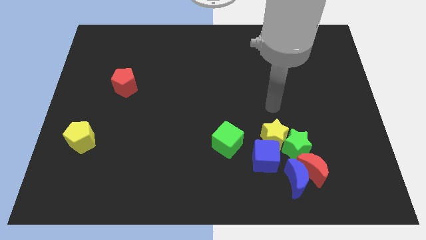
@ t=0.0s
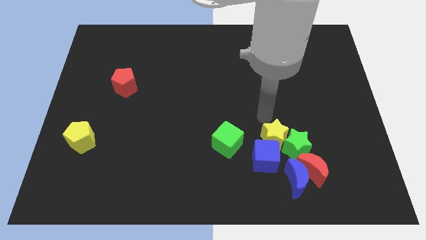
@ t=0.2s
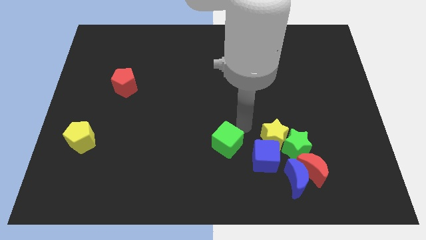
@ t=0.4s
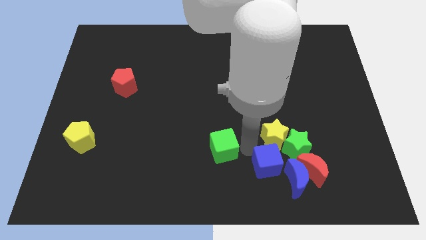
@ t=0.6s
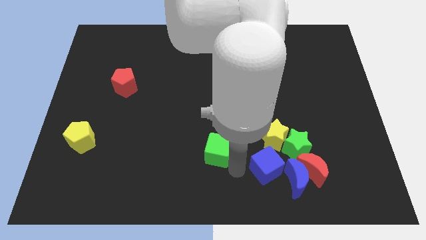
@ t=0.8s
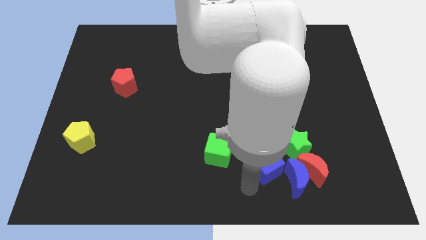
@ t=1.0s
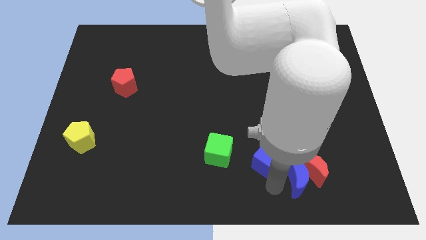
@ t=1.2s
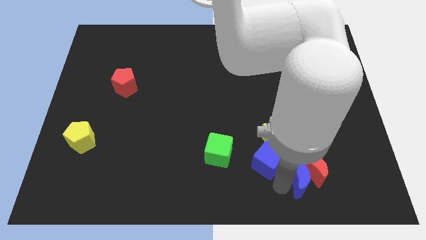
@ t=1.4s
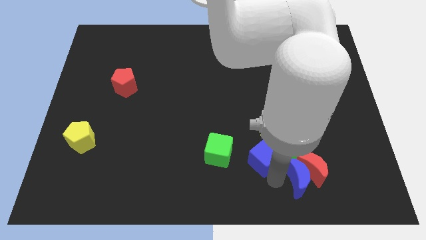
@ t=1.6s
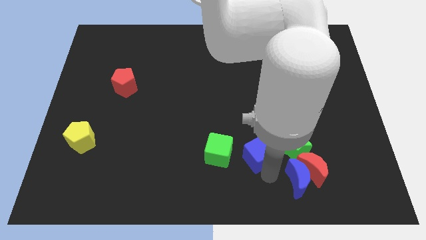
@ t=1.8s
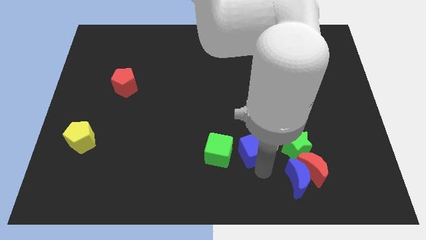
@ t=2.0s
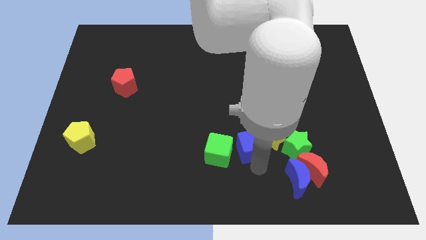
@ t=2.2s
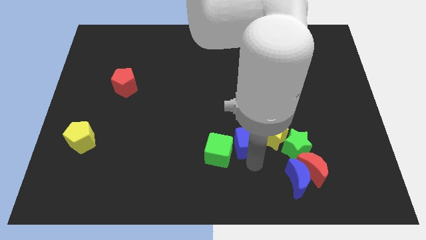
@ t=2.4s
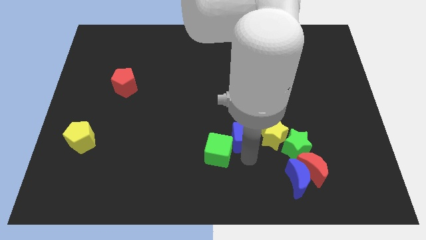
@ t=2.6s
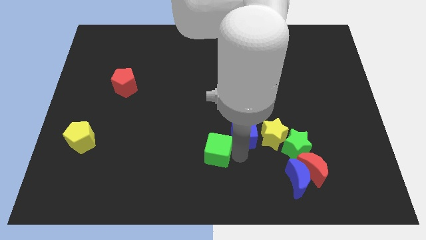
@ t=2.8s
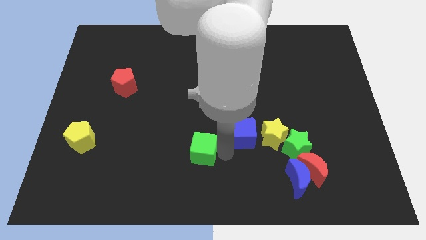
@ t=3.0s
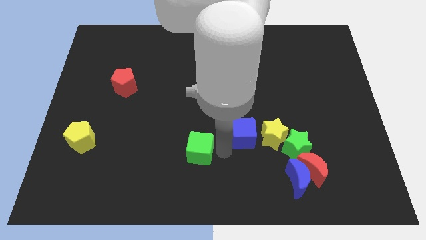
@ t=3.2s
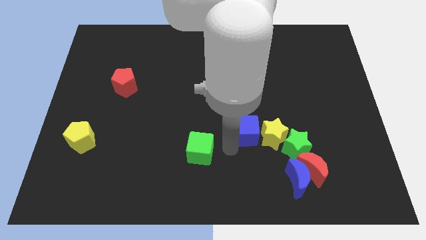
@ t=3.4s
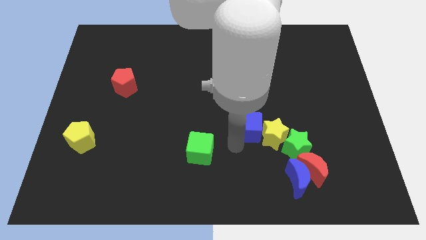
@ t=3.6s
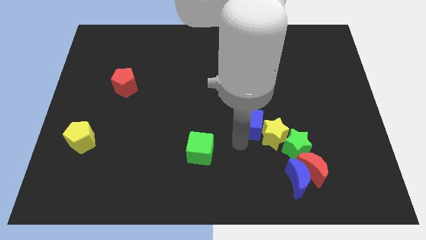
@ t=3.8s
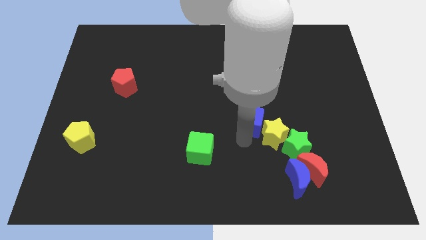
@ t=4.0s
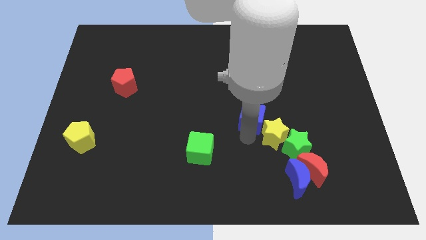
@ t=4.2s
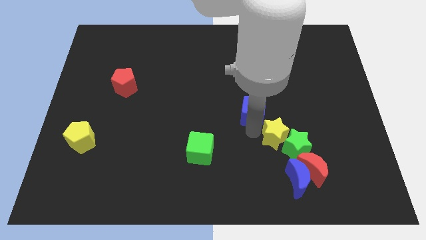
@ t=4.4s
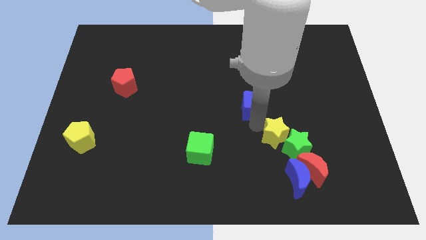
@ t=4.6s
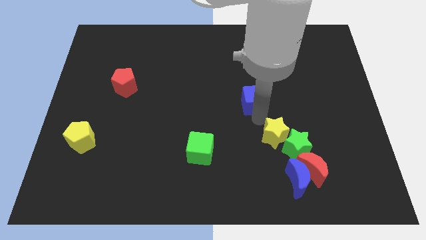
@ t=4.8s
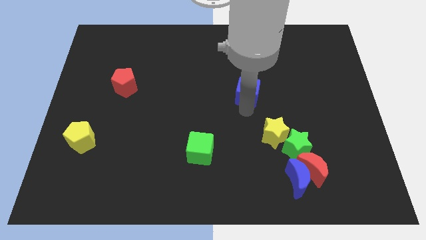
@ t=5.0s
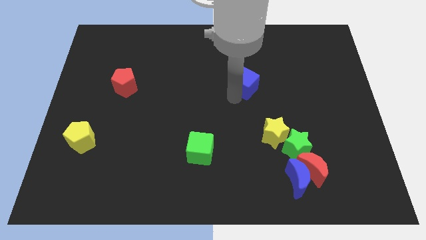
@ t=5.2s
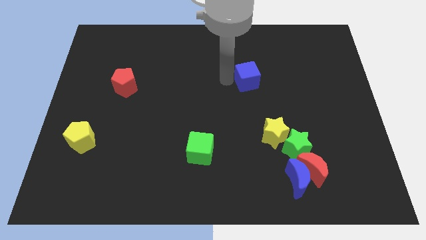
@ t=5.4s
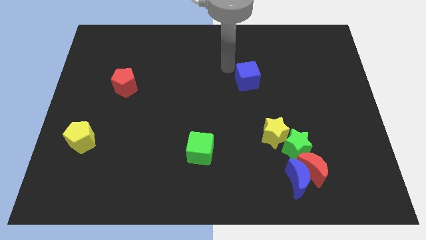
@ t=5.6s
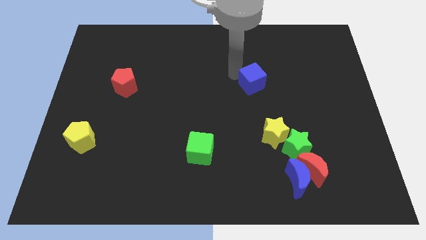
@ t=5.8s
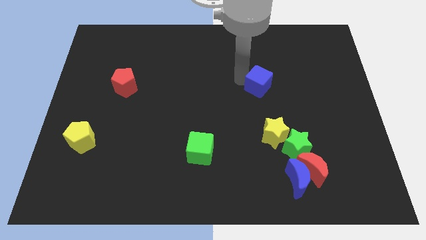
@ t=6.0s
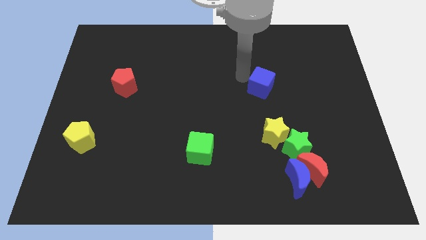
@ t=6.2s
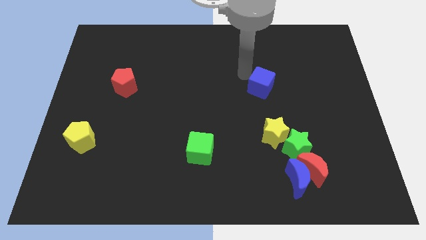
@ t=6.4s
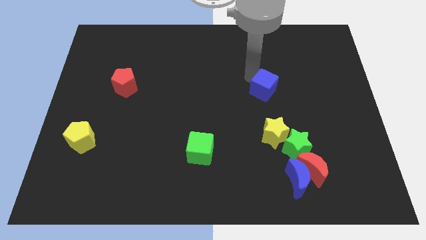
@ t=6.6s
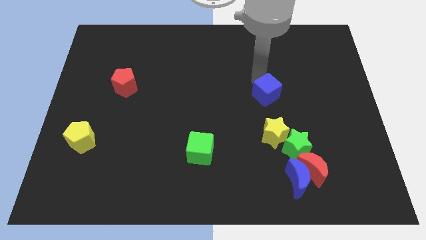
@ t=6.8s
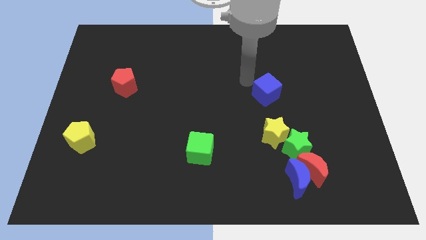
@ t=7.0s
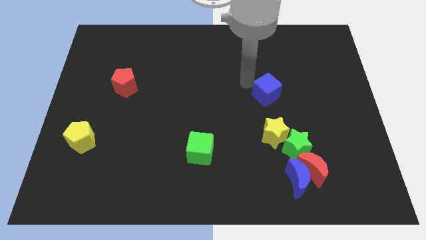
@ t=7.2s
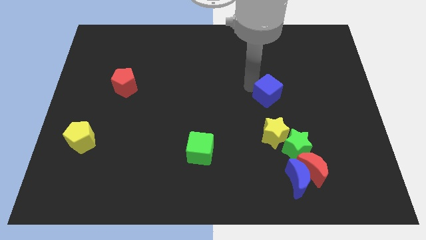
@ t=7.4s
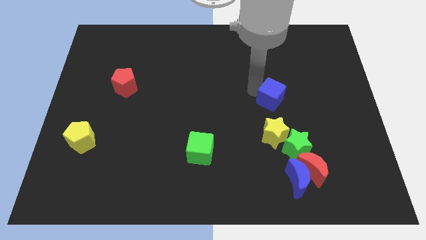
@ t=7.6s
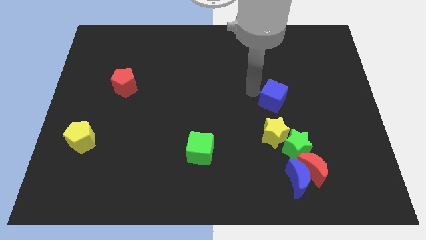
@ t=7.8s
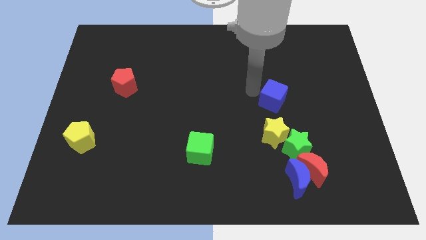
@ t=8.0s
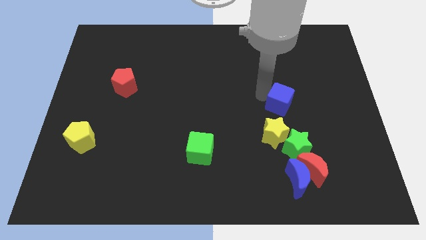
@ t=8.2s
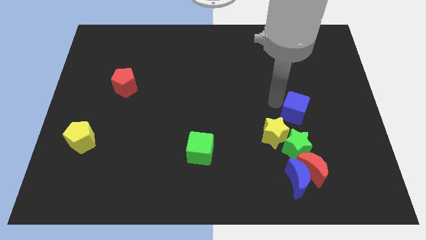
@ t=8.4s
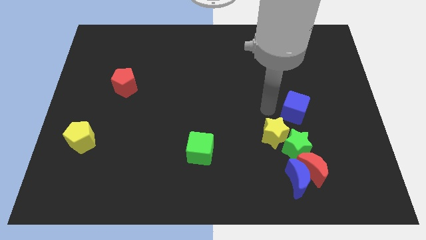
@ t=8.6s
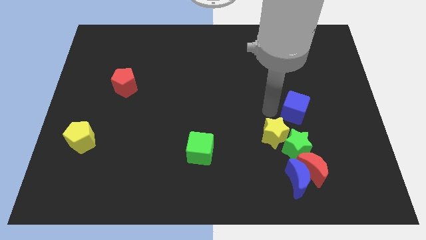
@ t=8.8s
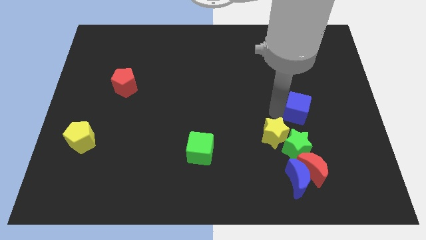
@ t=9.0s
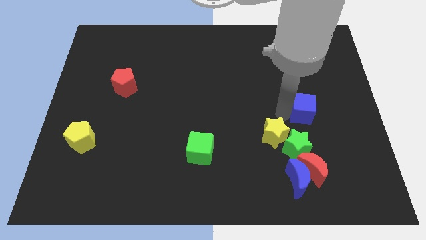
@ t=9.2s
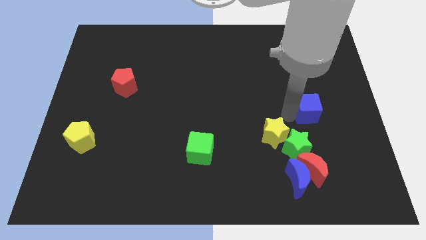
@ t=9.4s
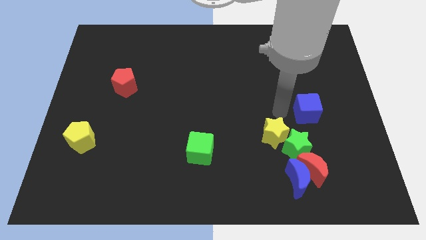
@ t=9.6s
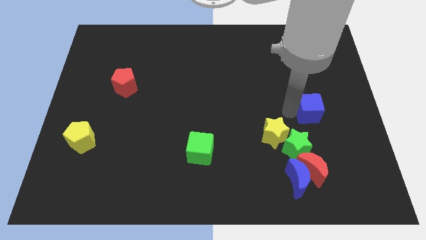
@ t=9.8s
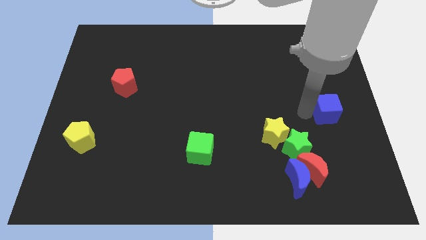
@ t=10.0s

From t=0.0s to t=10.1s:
put the blue cube to the right side of the board

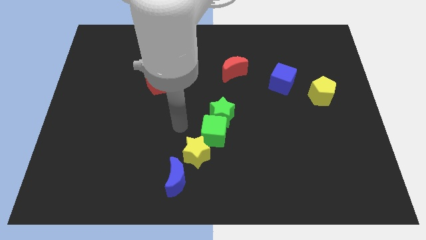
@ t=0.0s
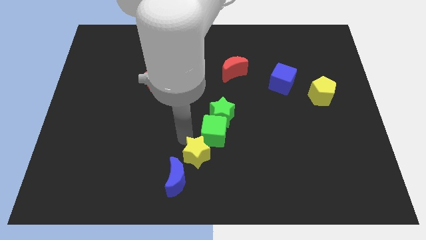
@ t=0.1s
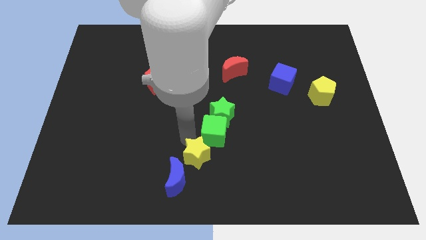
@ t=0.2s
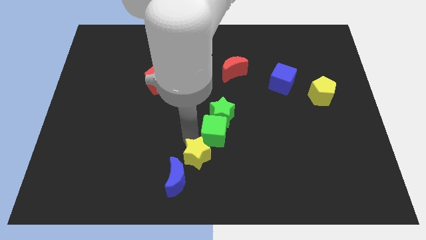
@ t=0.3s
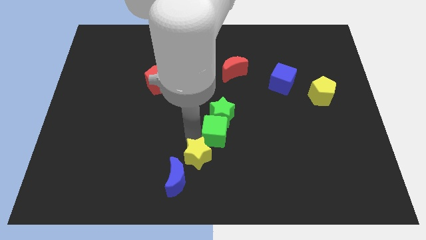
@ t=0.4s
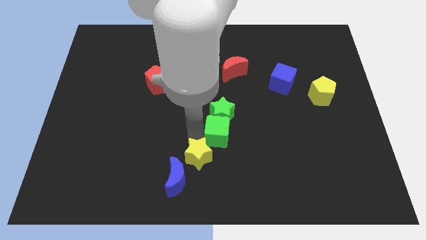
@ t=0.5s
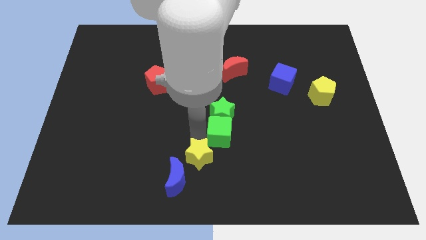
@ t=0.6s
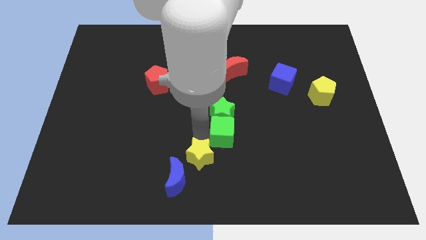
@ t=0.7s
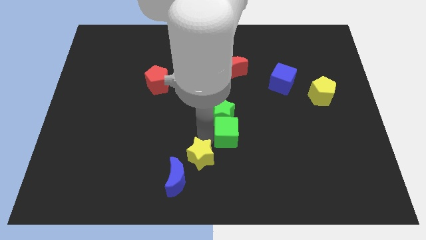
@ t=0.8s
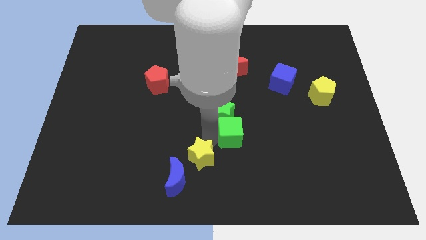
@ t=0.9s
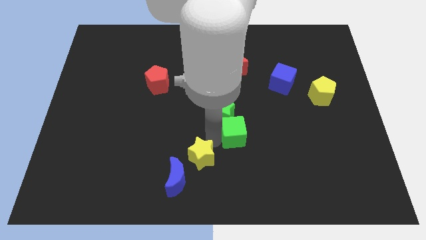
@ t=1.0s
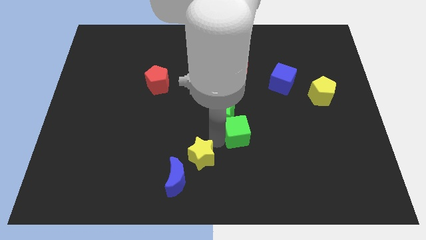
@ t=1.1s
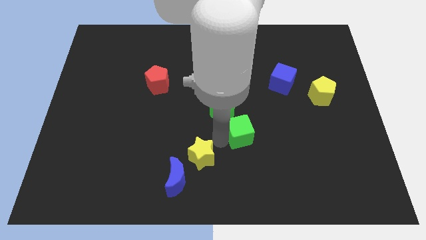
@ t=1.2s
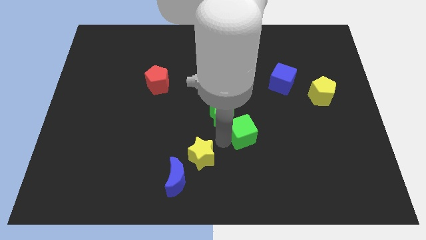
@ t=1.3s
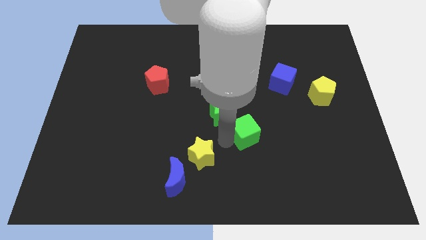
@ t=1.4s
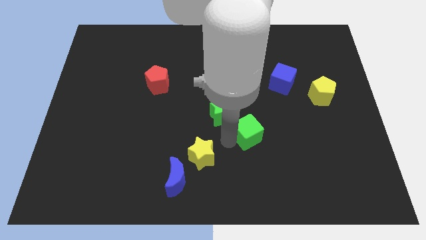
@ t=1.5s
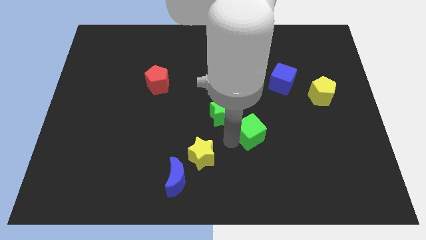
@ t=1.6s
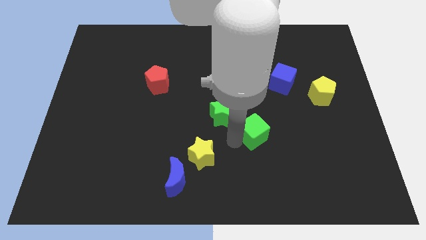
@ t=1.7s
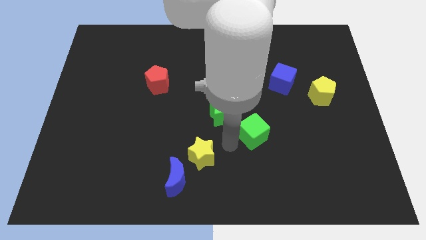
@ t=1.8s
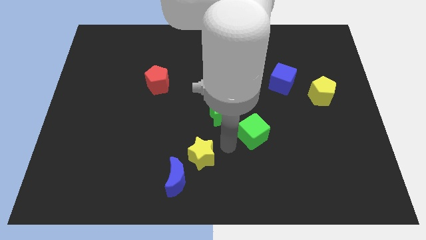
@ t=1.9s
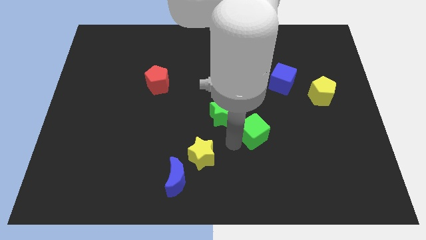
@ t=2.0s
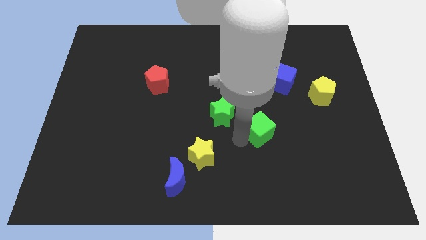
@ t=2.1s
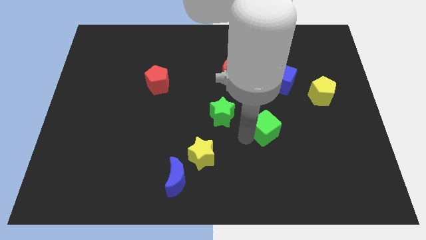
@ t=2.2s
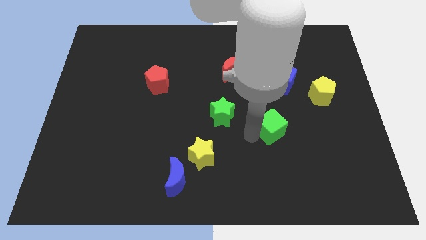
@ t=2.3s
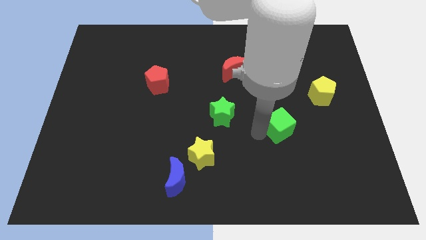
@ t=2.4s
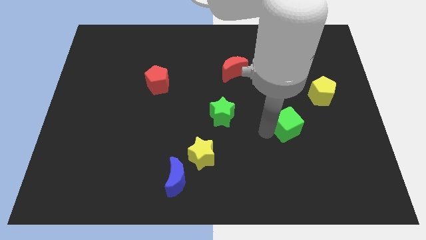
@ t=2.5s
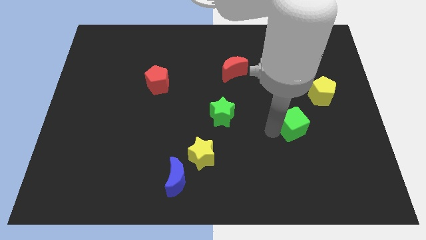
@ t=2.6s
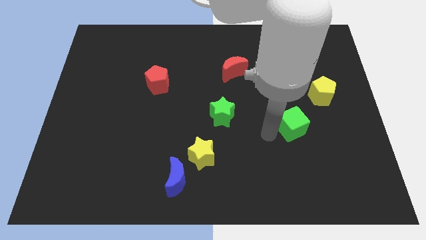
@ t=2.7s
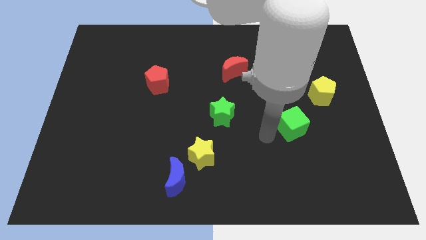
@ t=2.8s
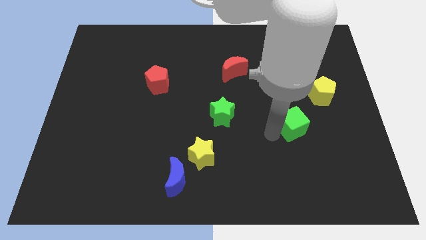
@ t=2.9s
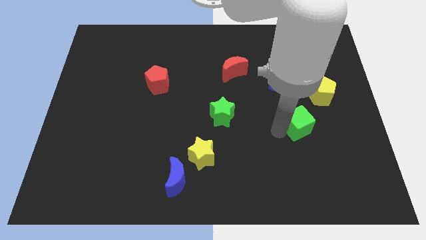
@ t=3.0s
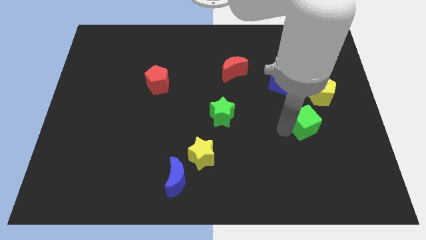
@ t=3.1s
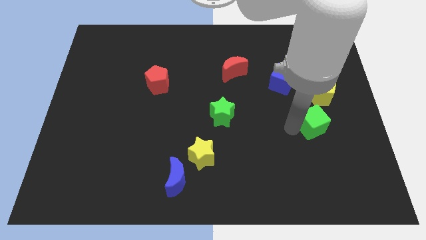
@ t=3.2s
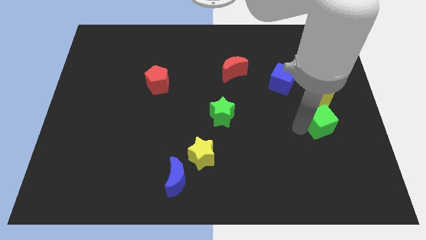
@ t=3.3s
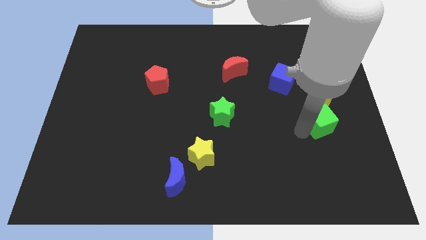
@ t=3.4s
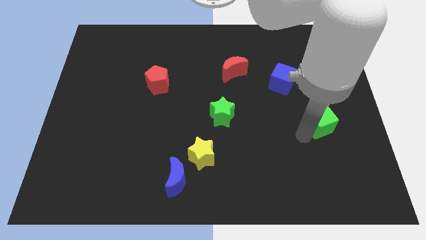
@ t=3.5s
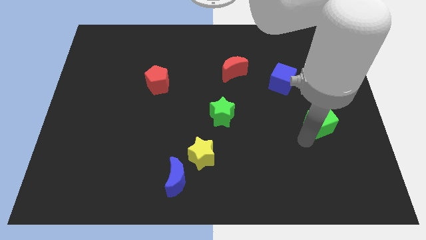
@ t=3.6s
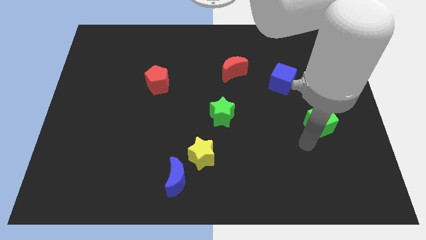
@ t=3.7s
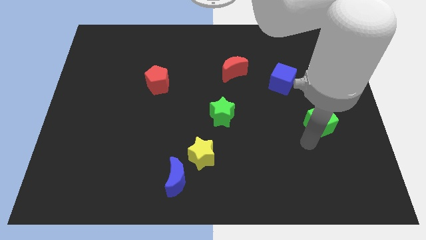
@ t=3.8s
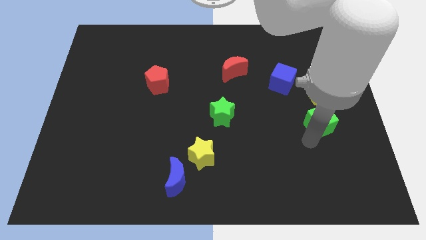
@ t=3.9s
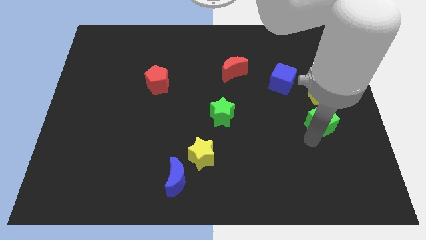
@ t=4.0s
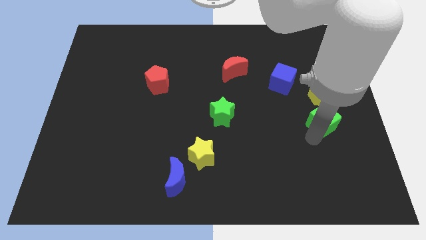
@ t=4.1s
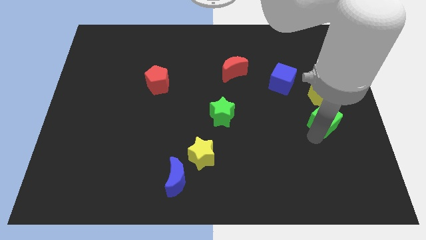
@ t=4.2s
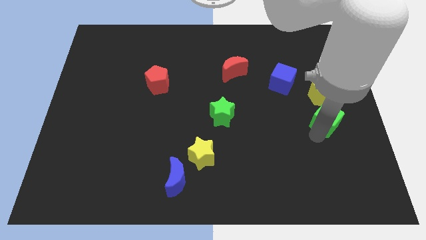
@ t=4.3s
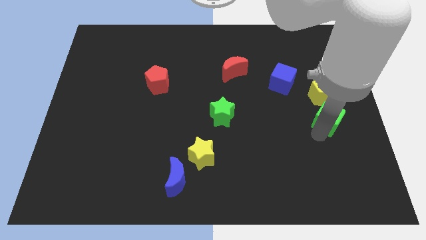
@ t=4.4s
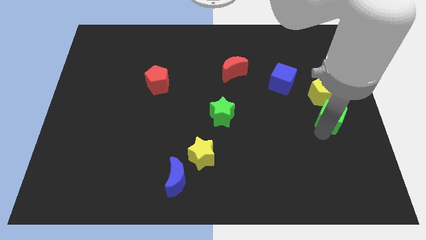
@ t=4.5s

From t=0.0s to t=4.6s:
push the green cube to the right side of the board
